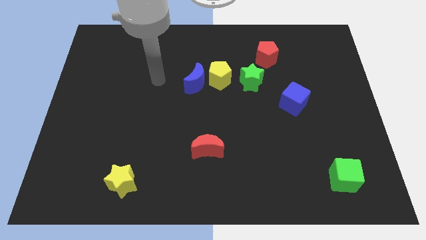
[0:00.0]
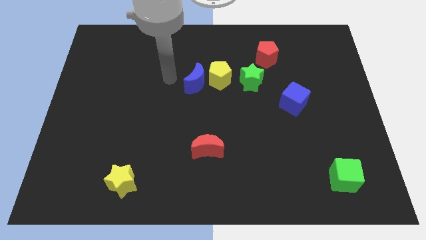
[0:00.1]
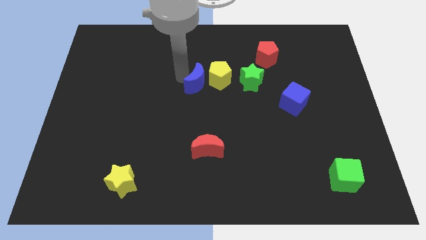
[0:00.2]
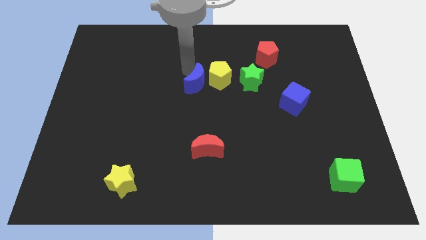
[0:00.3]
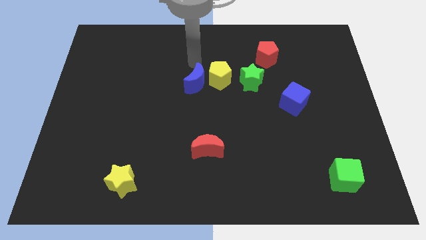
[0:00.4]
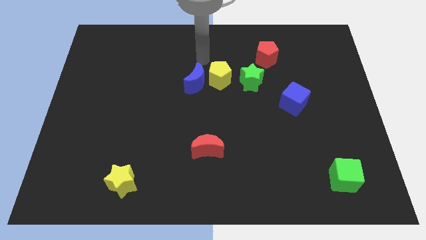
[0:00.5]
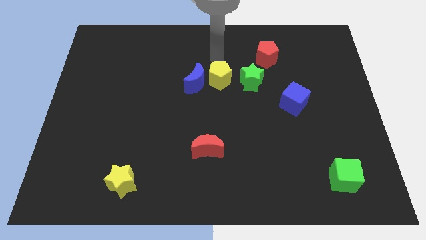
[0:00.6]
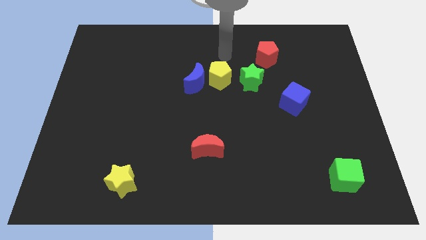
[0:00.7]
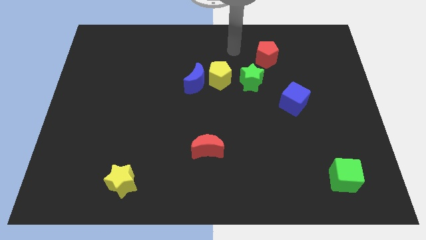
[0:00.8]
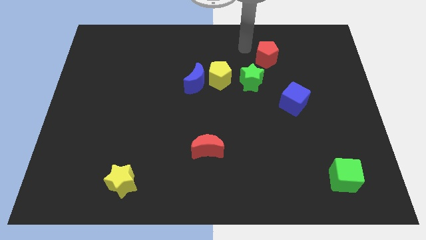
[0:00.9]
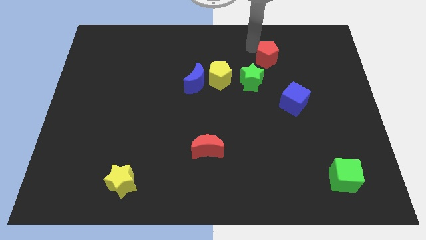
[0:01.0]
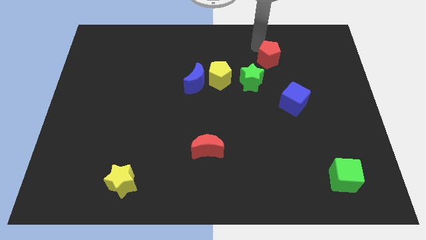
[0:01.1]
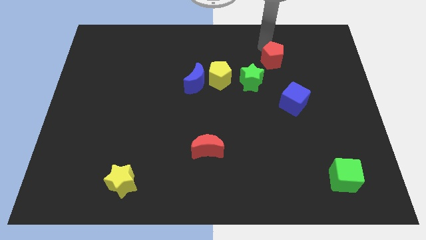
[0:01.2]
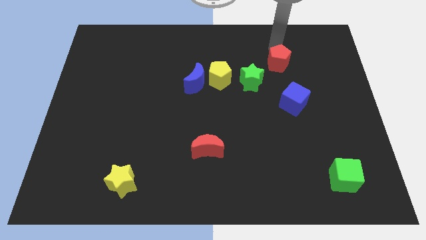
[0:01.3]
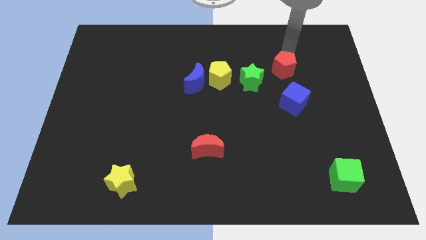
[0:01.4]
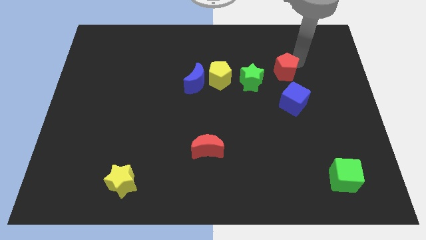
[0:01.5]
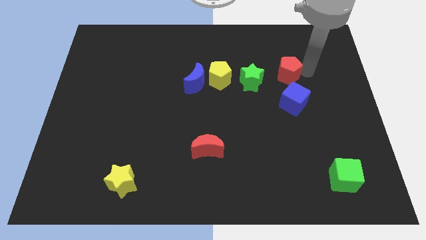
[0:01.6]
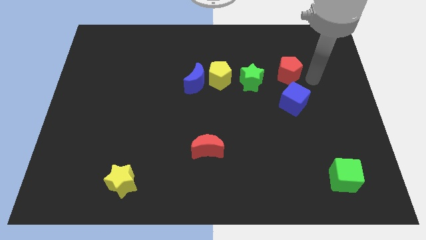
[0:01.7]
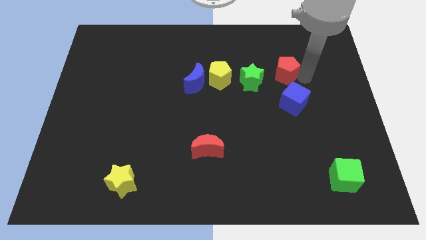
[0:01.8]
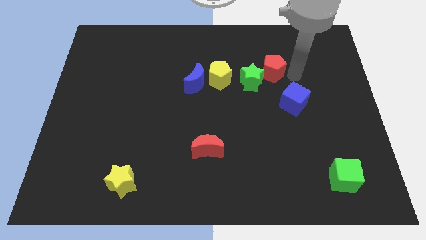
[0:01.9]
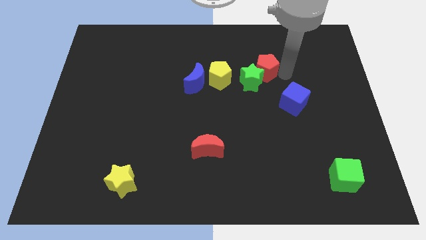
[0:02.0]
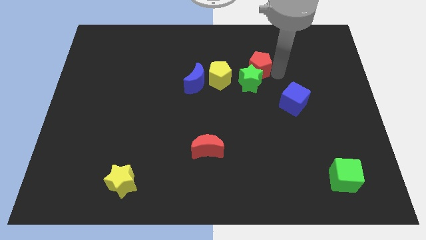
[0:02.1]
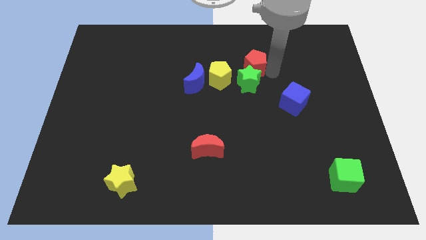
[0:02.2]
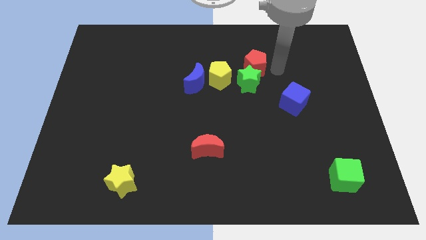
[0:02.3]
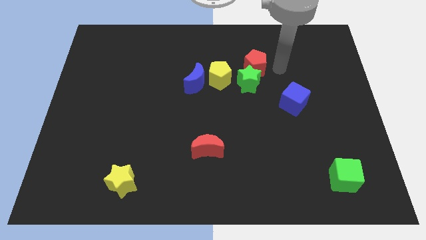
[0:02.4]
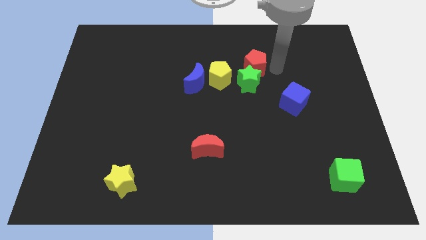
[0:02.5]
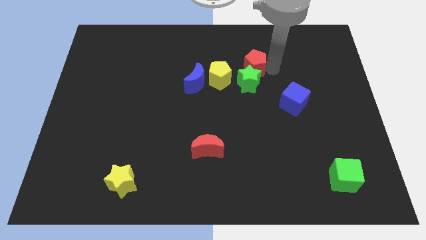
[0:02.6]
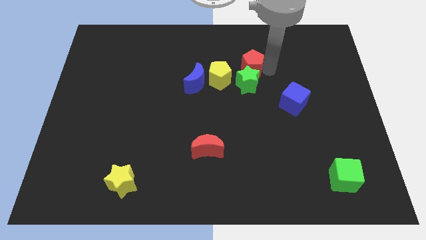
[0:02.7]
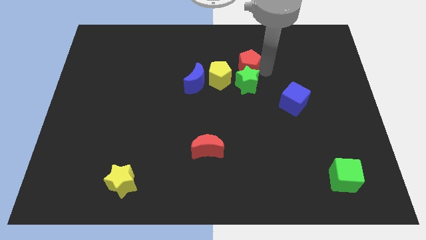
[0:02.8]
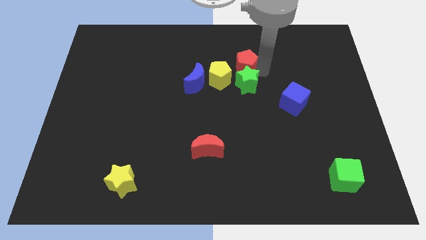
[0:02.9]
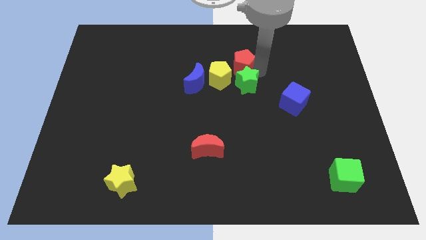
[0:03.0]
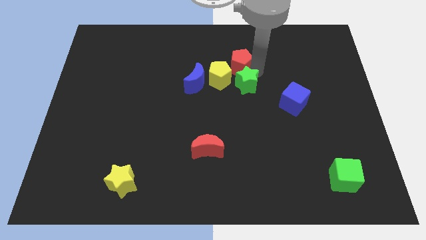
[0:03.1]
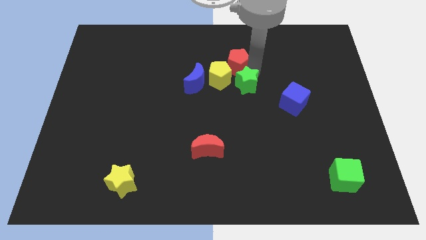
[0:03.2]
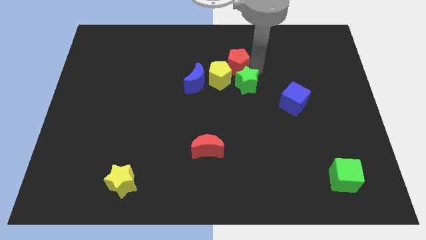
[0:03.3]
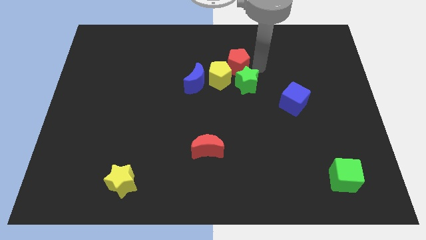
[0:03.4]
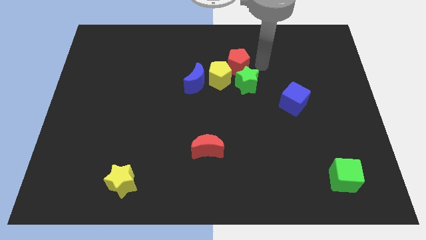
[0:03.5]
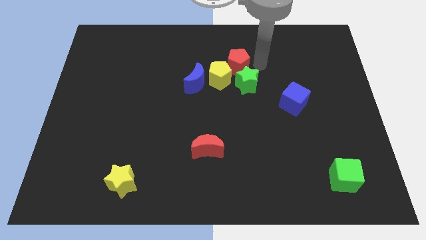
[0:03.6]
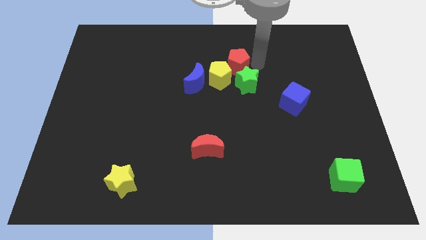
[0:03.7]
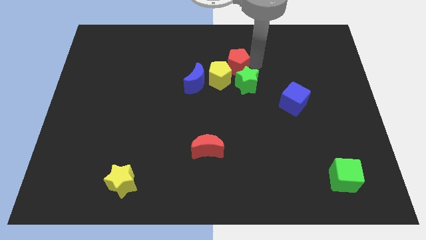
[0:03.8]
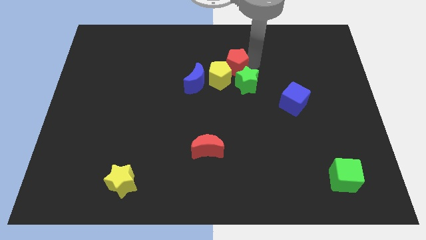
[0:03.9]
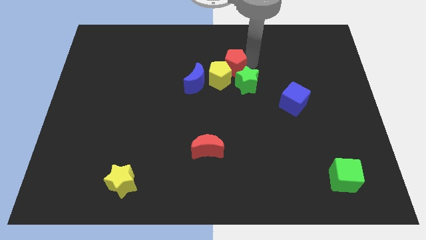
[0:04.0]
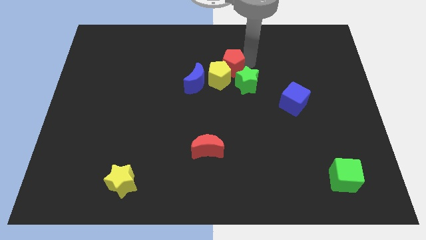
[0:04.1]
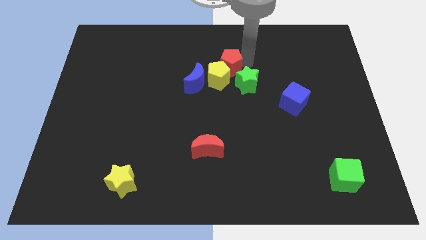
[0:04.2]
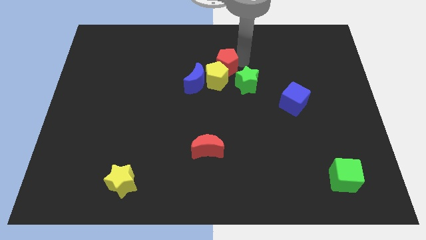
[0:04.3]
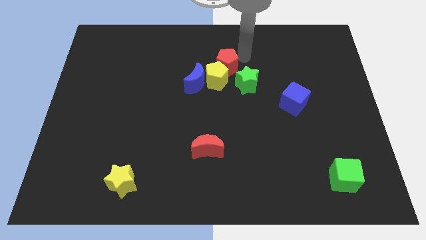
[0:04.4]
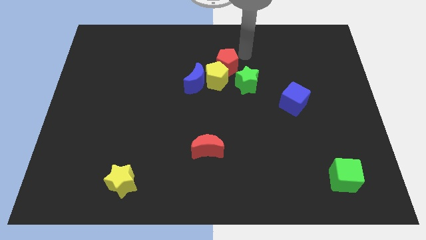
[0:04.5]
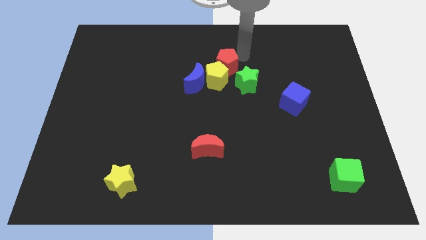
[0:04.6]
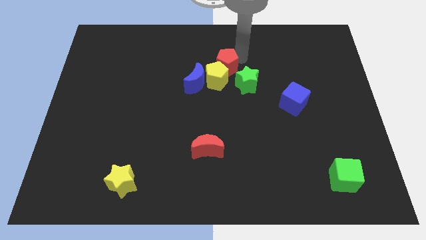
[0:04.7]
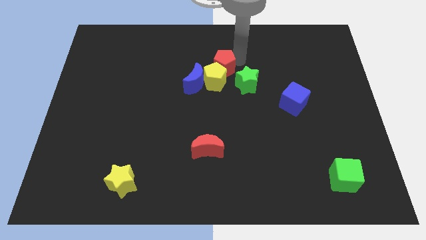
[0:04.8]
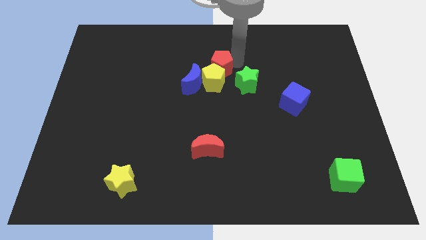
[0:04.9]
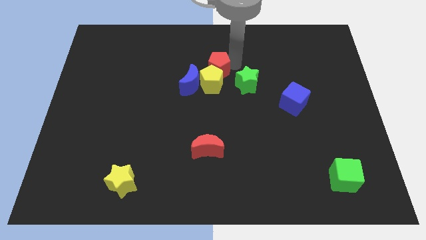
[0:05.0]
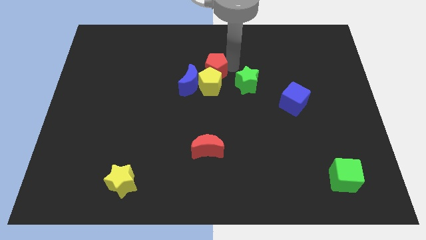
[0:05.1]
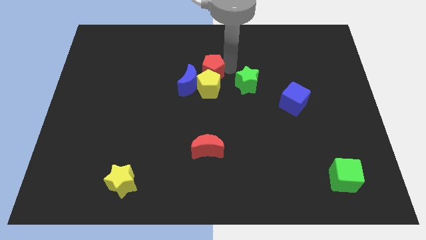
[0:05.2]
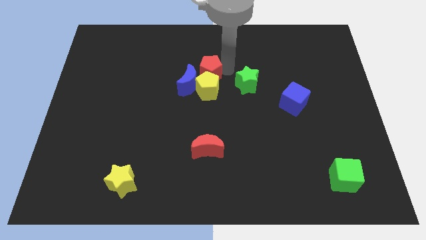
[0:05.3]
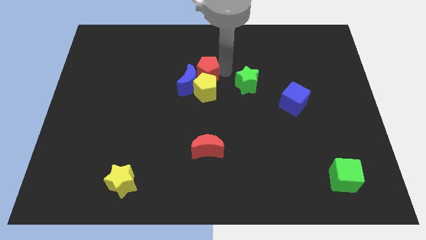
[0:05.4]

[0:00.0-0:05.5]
put the red pentagon close to the blue moon

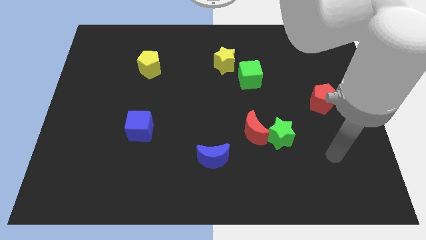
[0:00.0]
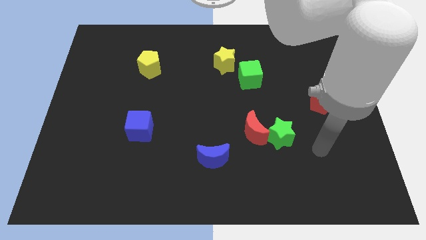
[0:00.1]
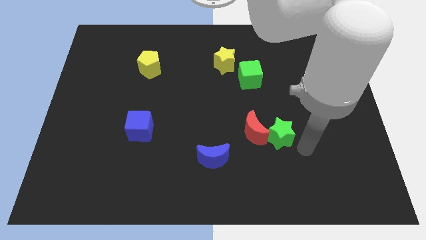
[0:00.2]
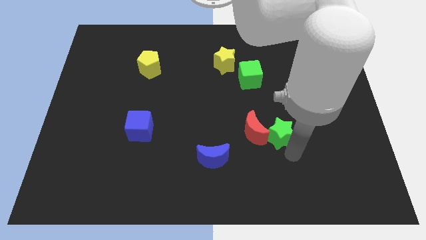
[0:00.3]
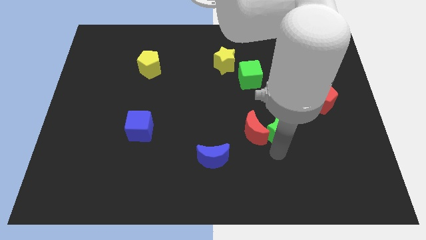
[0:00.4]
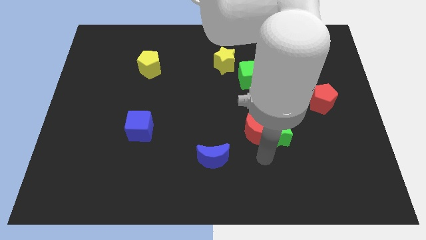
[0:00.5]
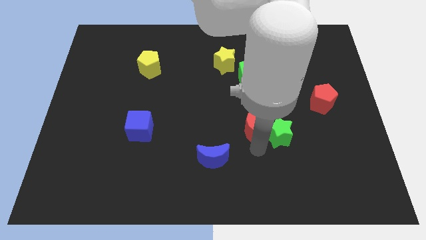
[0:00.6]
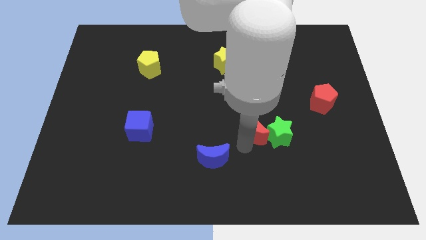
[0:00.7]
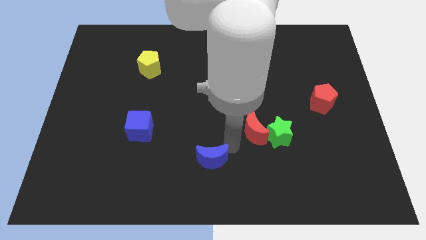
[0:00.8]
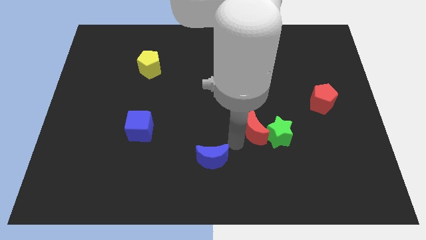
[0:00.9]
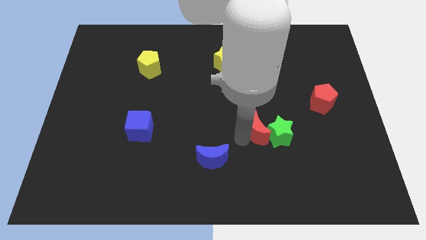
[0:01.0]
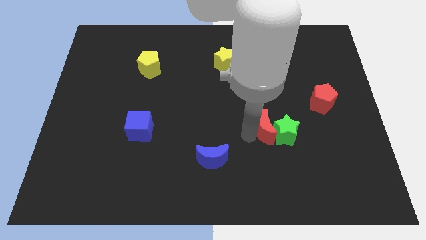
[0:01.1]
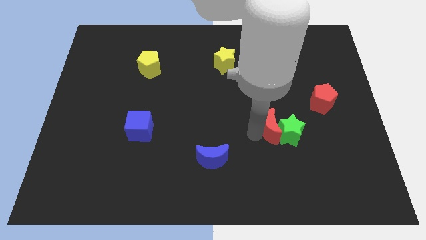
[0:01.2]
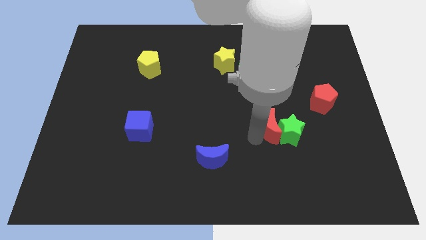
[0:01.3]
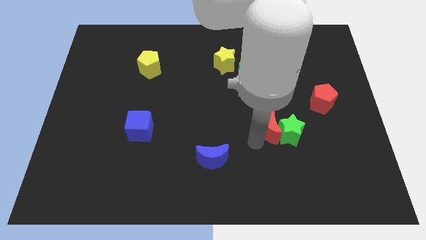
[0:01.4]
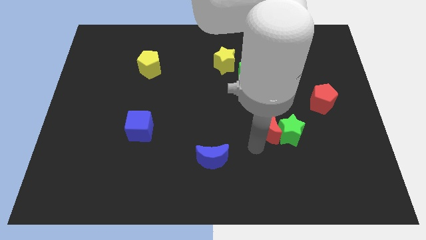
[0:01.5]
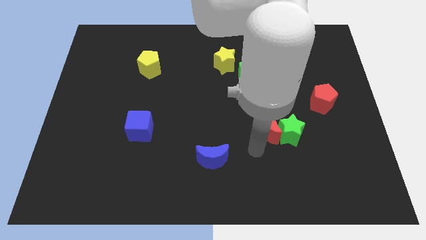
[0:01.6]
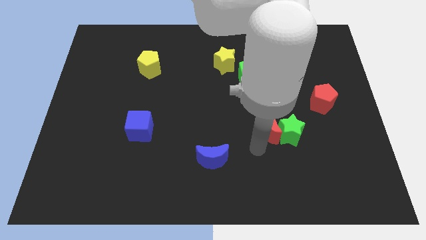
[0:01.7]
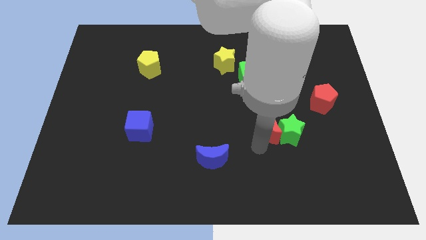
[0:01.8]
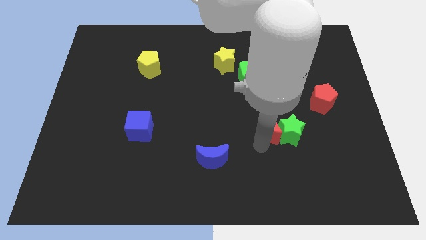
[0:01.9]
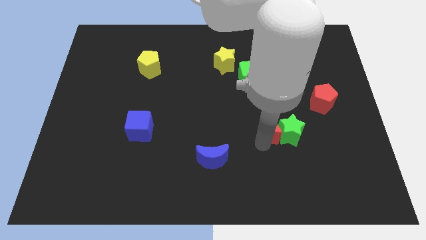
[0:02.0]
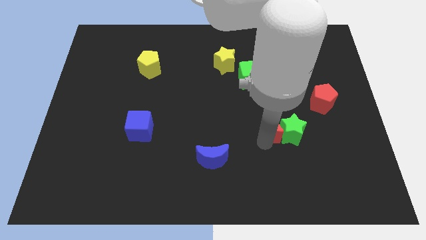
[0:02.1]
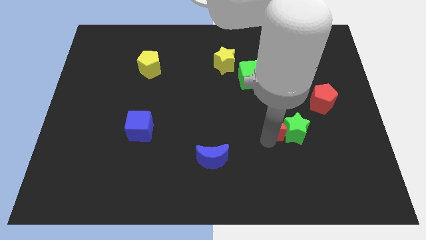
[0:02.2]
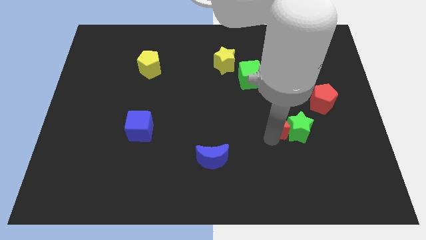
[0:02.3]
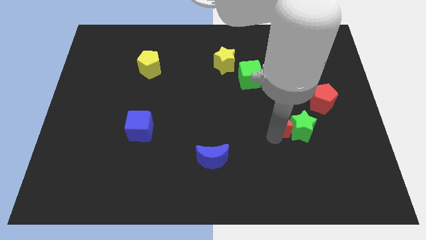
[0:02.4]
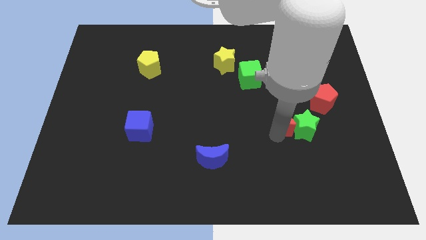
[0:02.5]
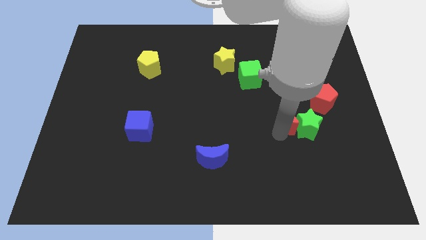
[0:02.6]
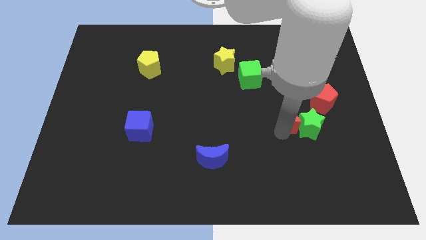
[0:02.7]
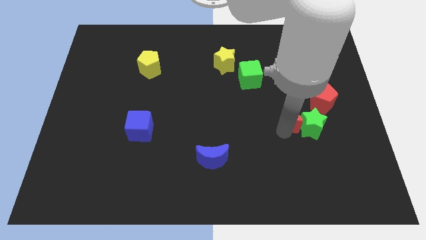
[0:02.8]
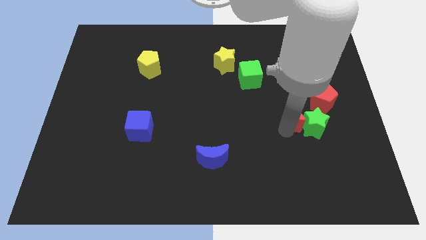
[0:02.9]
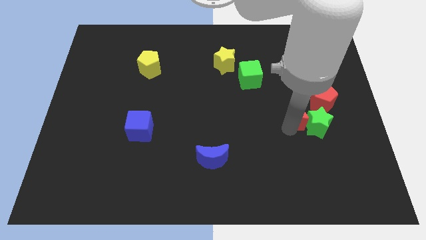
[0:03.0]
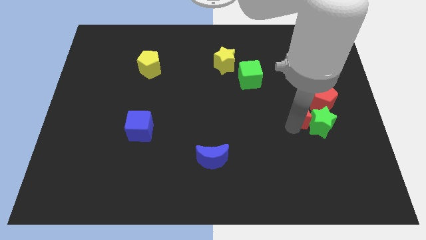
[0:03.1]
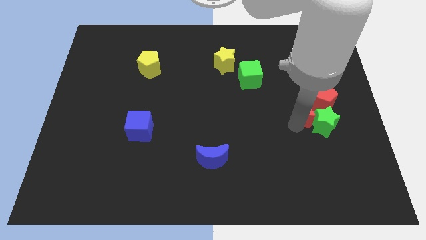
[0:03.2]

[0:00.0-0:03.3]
move the red moon towards the red pentagon
